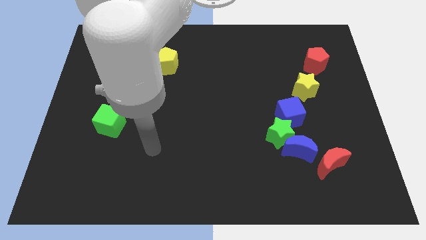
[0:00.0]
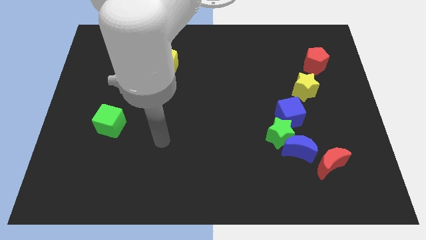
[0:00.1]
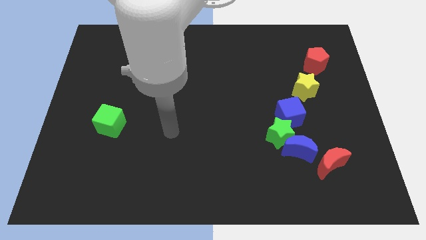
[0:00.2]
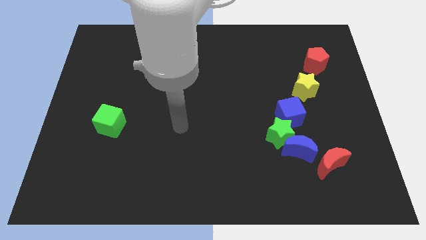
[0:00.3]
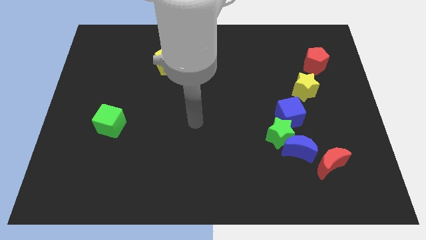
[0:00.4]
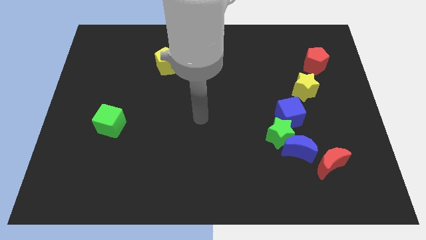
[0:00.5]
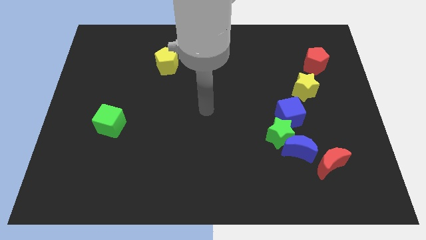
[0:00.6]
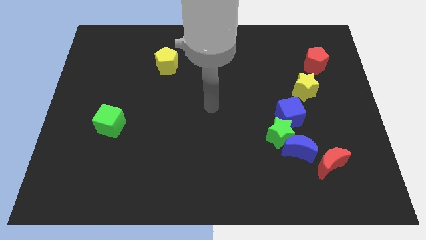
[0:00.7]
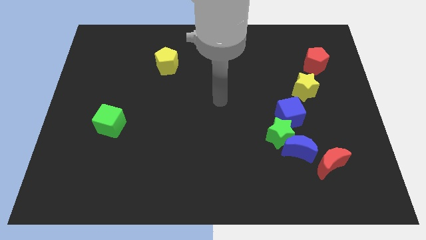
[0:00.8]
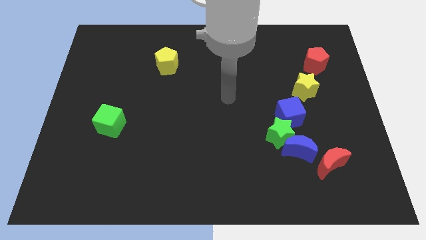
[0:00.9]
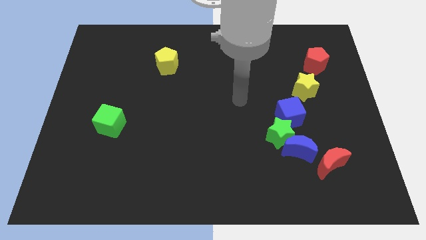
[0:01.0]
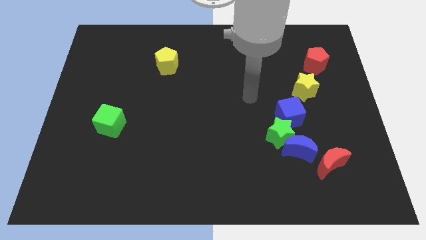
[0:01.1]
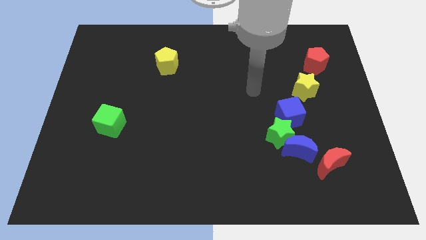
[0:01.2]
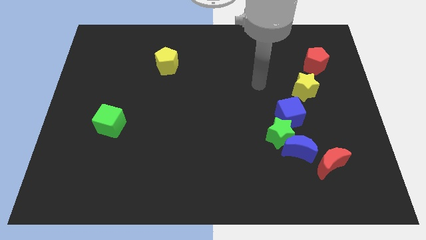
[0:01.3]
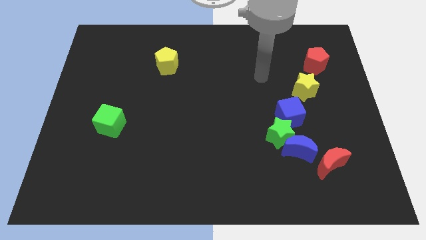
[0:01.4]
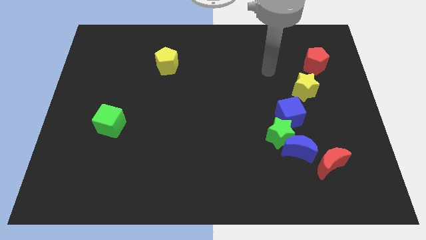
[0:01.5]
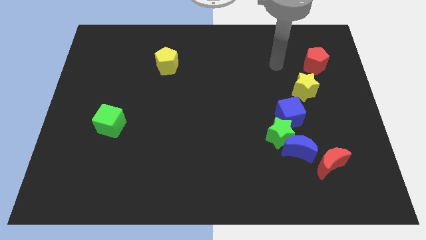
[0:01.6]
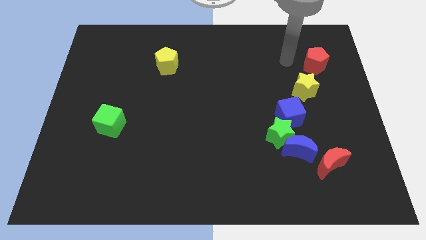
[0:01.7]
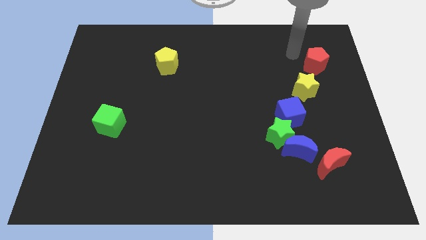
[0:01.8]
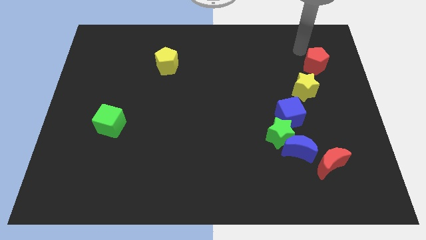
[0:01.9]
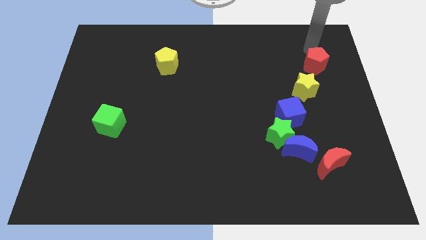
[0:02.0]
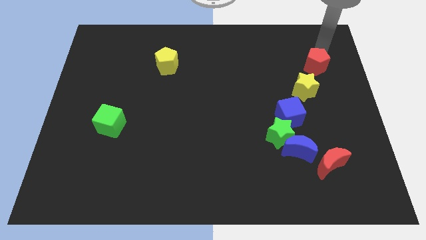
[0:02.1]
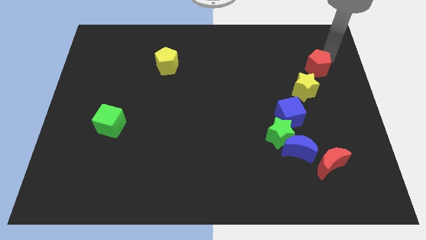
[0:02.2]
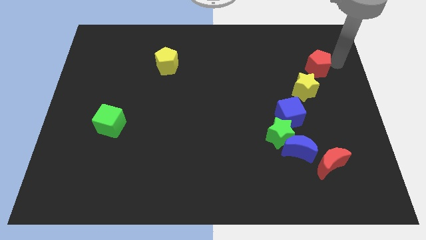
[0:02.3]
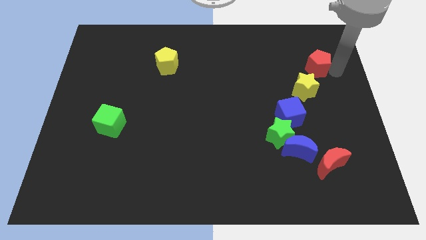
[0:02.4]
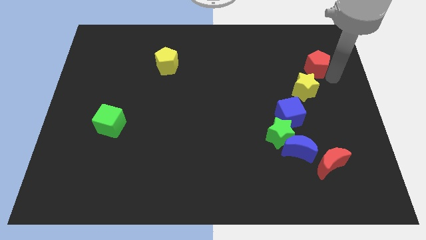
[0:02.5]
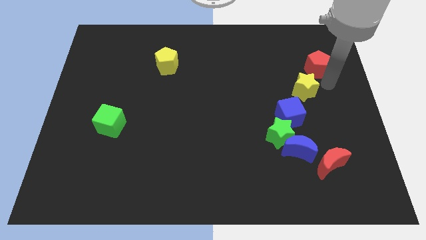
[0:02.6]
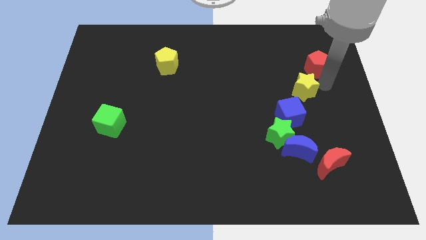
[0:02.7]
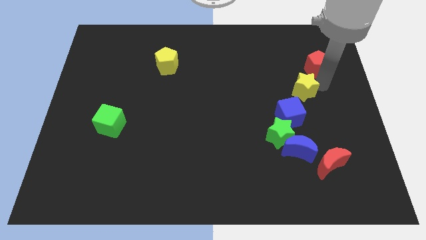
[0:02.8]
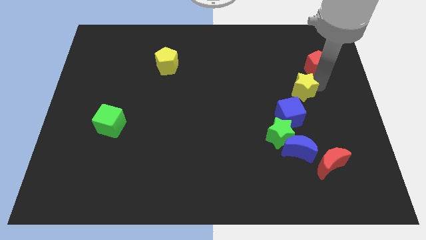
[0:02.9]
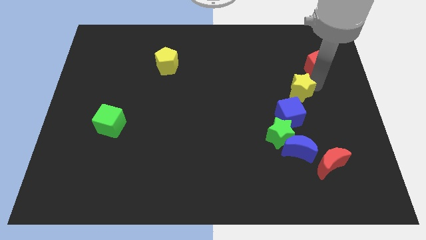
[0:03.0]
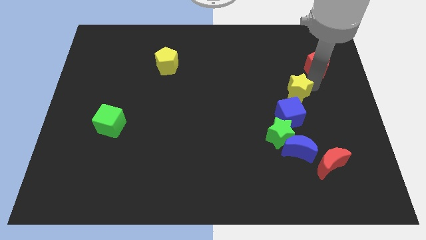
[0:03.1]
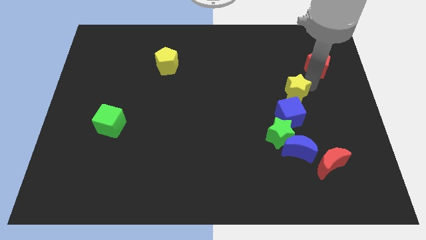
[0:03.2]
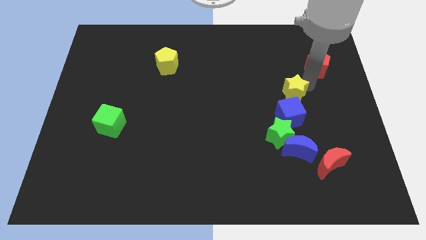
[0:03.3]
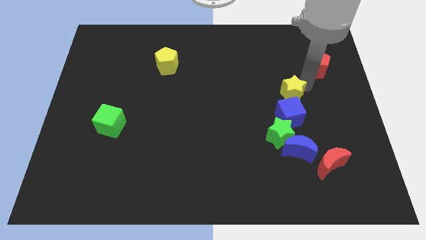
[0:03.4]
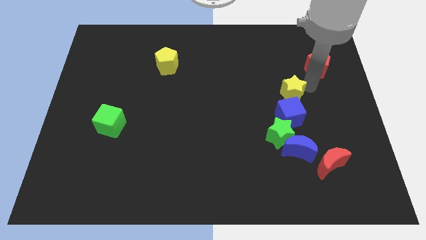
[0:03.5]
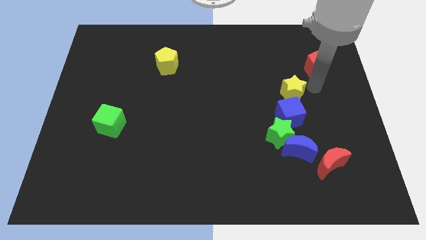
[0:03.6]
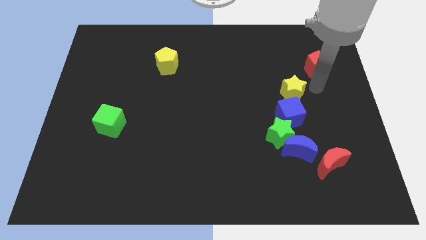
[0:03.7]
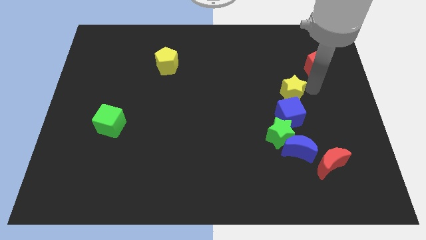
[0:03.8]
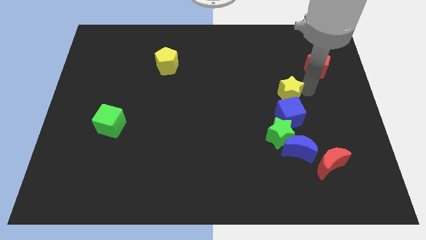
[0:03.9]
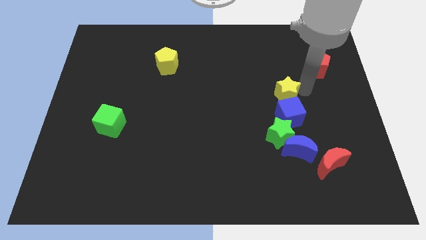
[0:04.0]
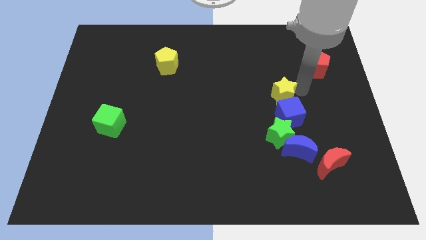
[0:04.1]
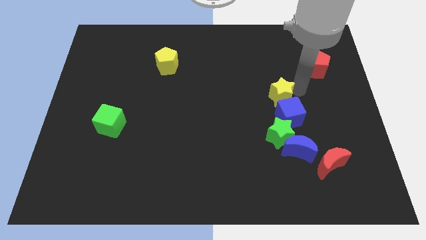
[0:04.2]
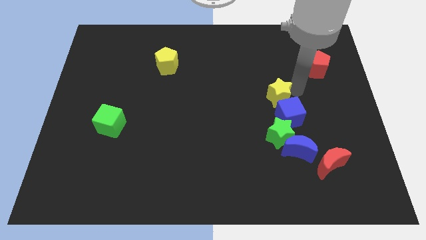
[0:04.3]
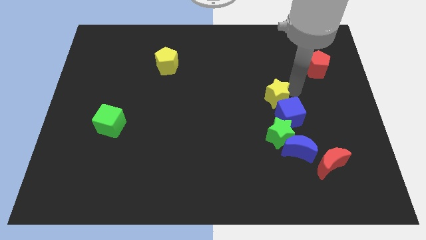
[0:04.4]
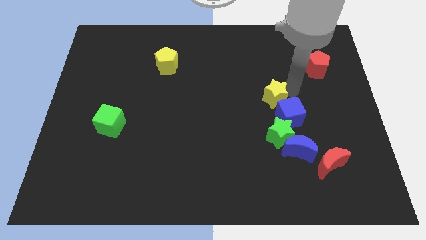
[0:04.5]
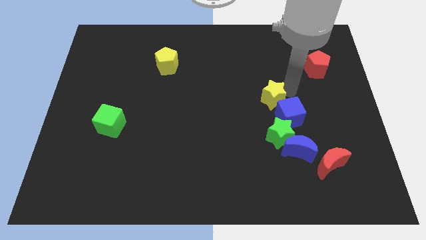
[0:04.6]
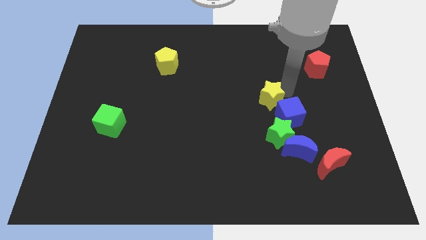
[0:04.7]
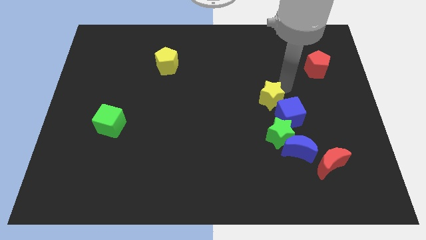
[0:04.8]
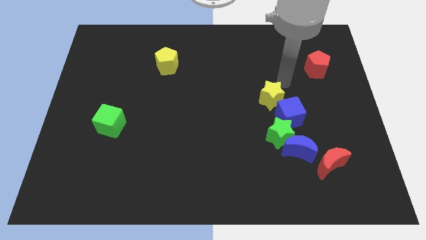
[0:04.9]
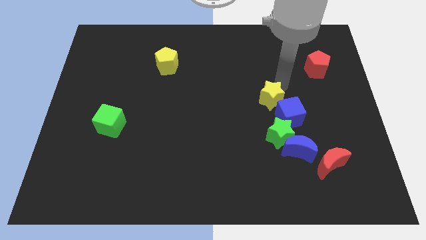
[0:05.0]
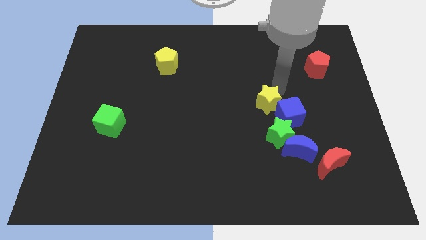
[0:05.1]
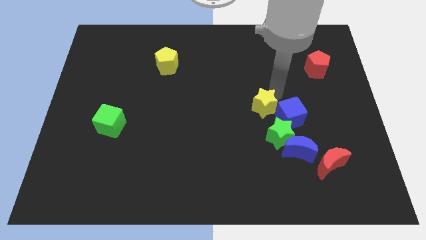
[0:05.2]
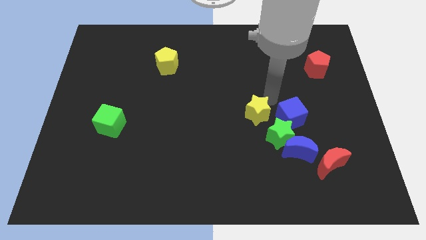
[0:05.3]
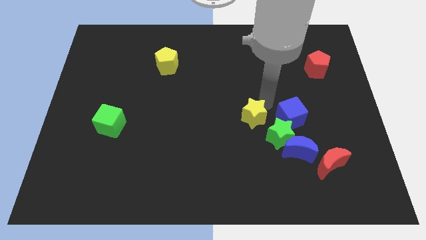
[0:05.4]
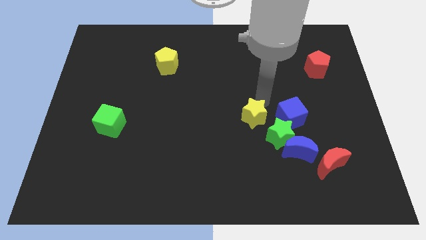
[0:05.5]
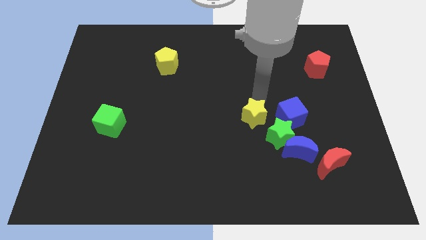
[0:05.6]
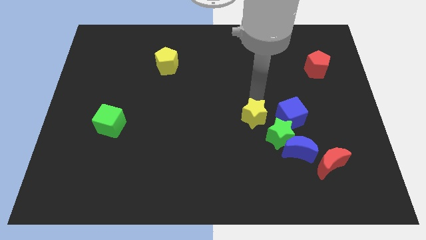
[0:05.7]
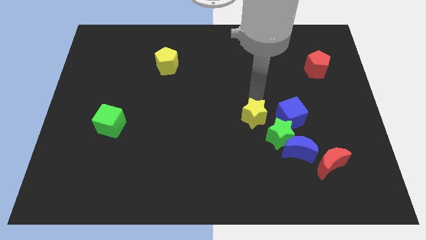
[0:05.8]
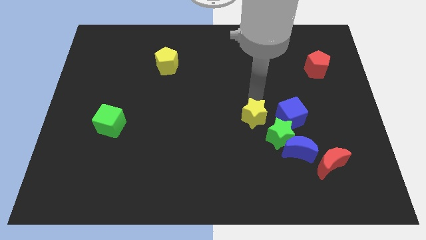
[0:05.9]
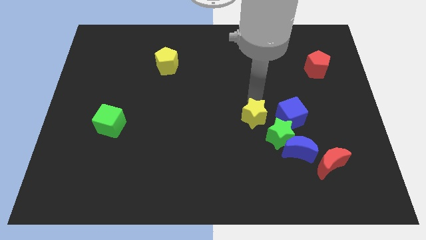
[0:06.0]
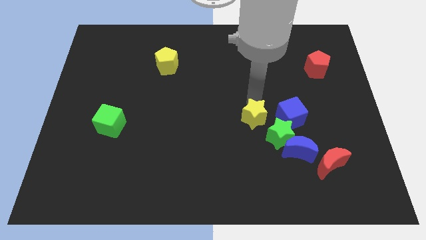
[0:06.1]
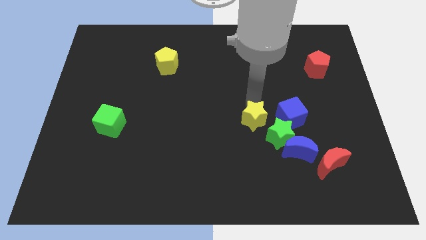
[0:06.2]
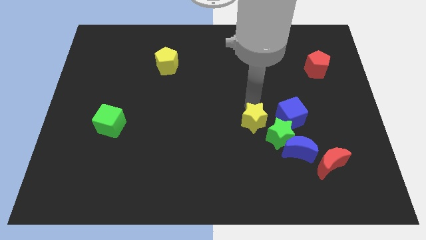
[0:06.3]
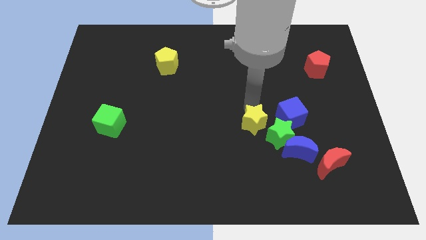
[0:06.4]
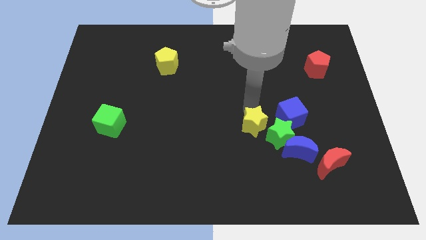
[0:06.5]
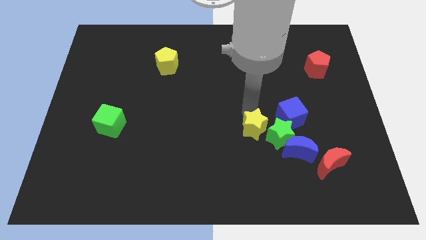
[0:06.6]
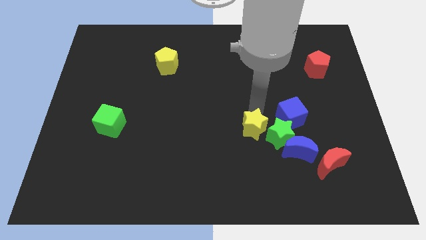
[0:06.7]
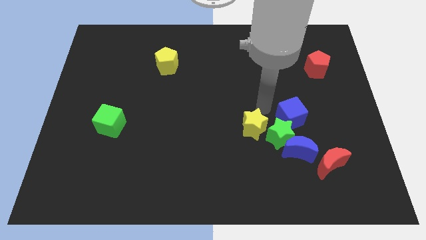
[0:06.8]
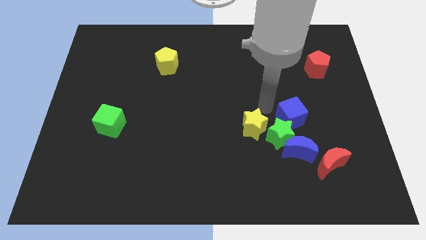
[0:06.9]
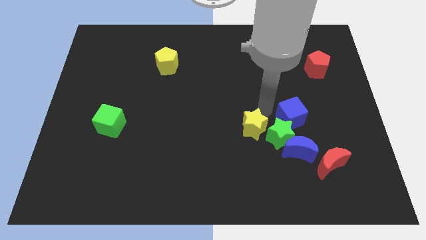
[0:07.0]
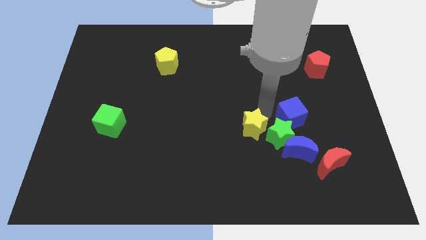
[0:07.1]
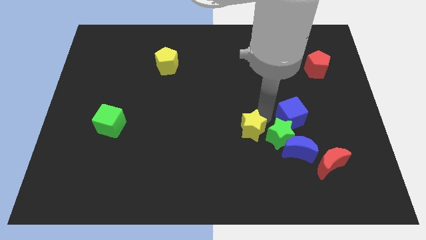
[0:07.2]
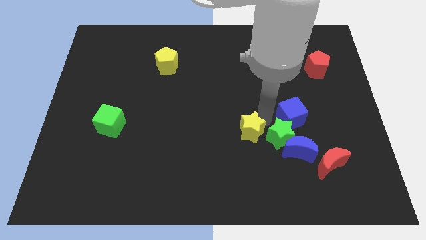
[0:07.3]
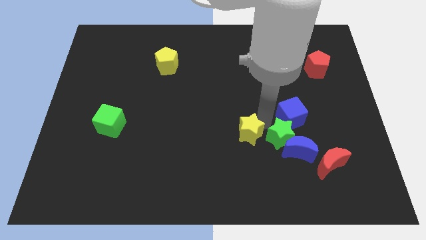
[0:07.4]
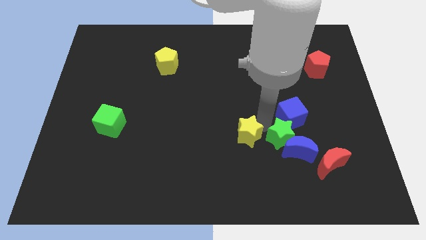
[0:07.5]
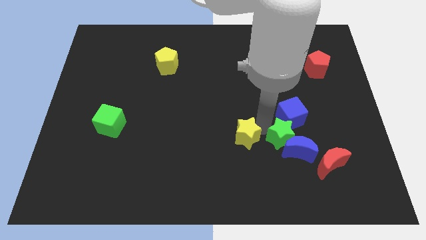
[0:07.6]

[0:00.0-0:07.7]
slide the yellow star down and left diagonally

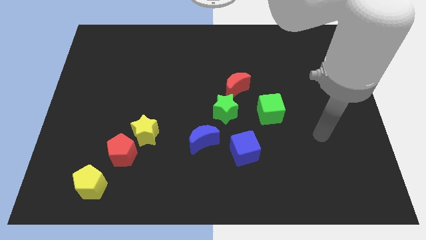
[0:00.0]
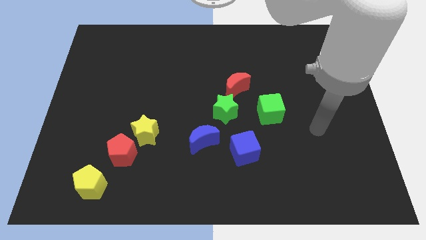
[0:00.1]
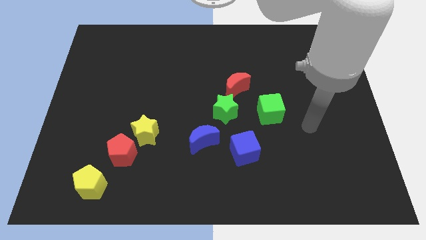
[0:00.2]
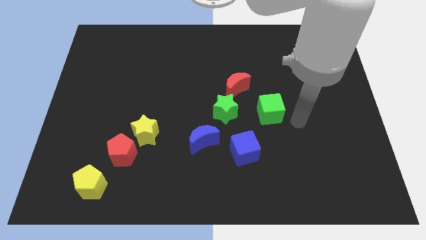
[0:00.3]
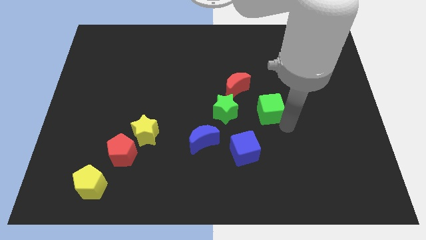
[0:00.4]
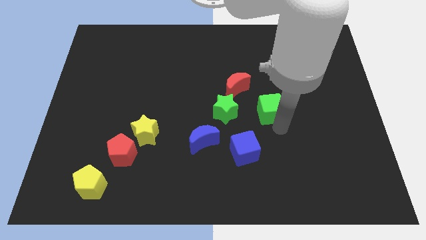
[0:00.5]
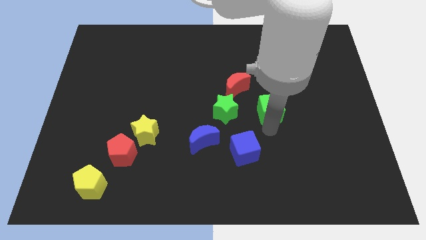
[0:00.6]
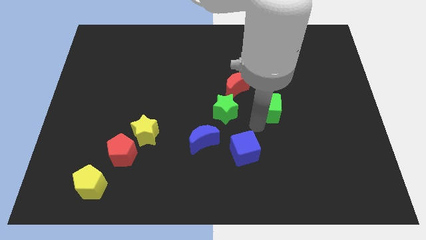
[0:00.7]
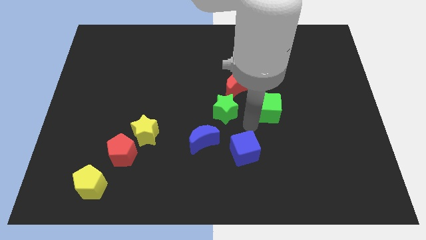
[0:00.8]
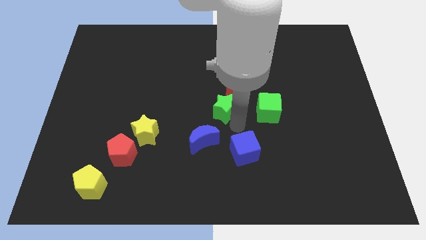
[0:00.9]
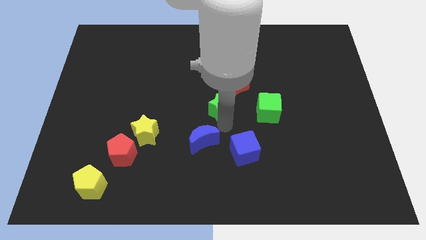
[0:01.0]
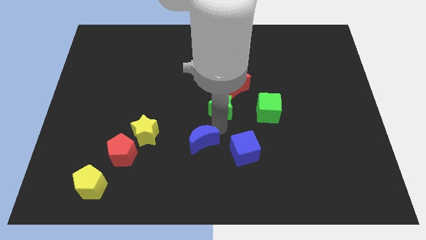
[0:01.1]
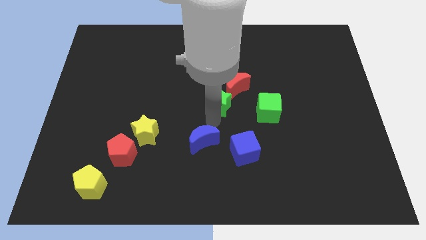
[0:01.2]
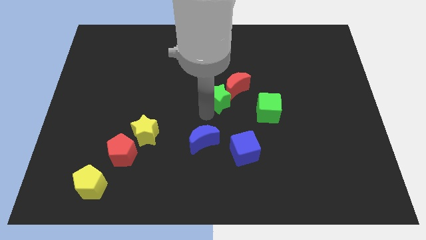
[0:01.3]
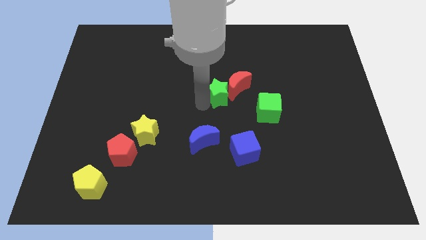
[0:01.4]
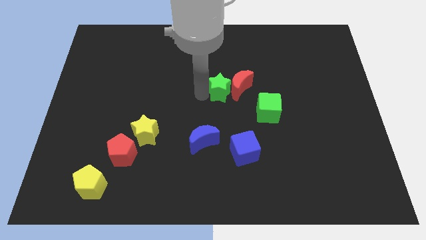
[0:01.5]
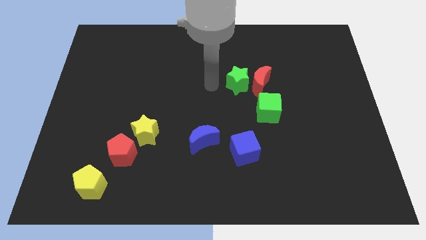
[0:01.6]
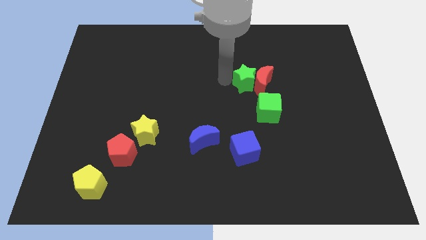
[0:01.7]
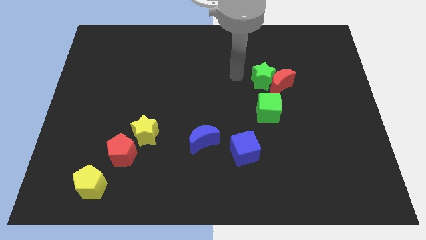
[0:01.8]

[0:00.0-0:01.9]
slide the red moon a little to the right
